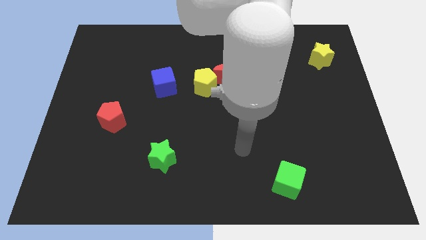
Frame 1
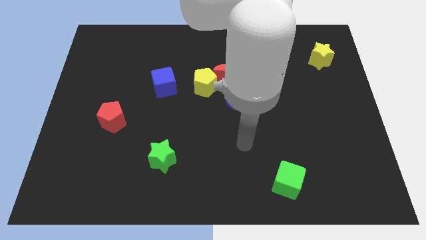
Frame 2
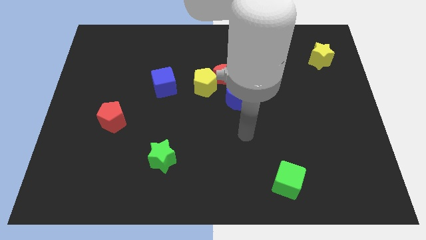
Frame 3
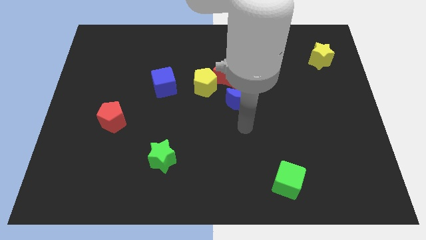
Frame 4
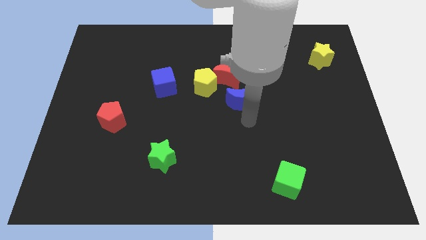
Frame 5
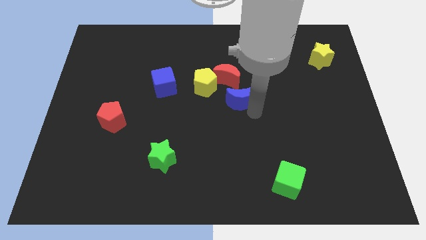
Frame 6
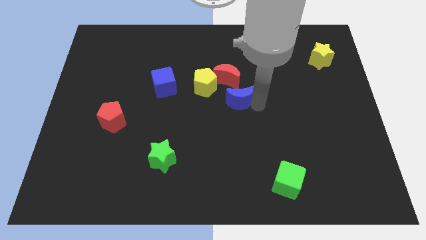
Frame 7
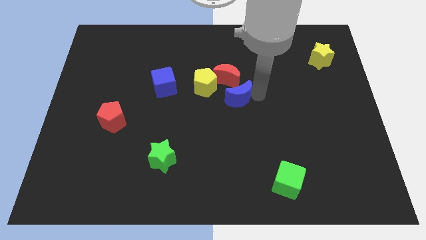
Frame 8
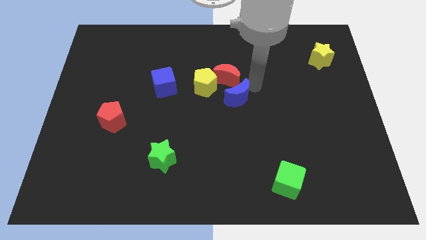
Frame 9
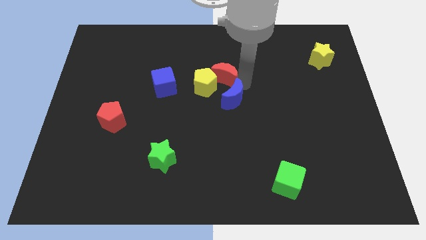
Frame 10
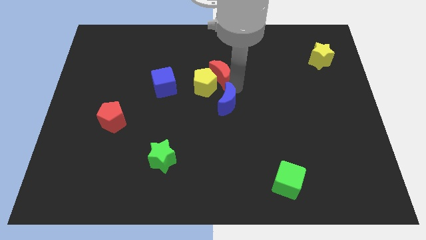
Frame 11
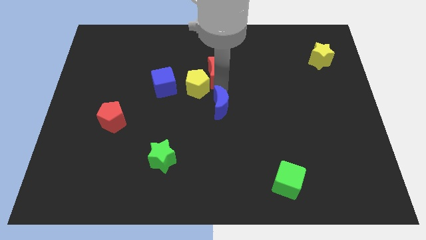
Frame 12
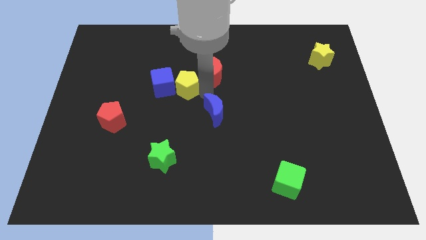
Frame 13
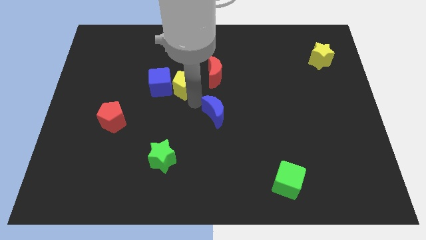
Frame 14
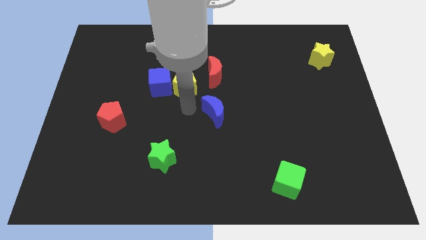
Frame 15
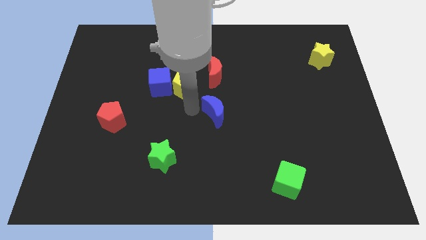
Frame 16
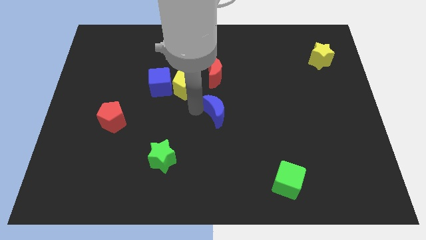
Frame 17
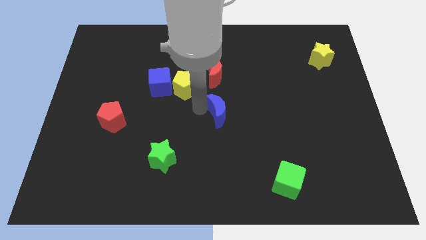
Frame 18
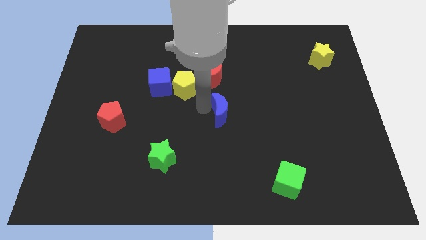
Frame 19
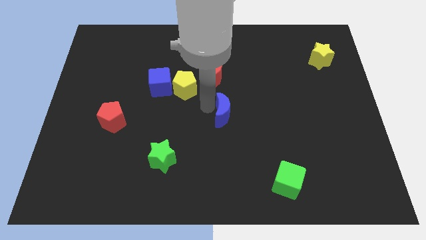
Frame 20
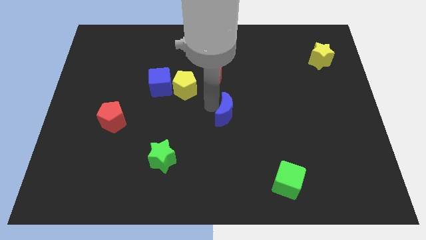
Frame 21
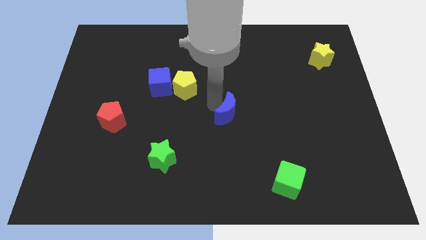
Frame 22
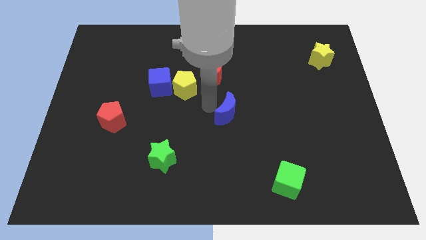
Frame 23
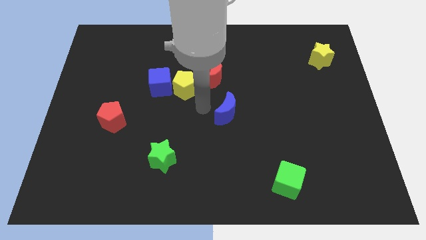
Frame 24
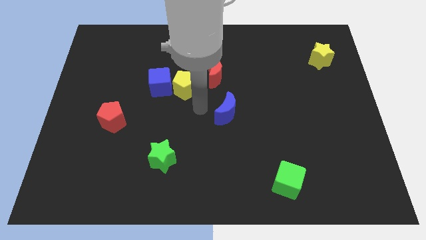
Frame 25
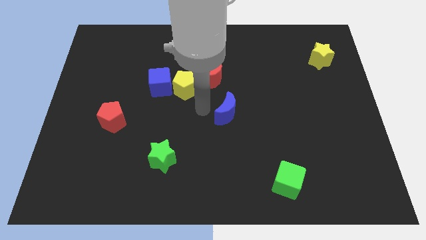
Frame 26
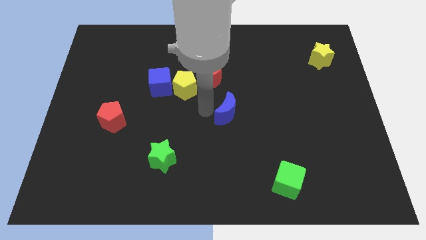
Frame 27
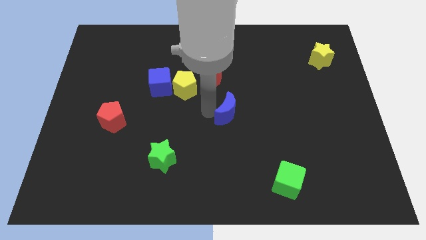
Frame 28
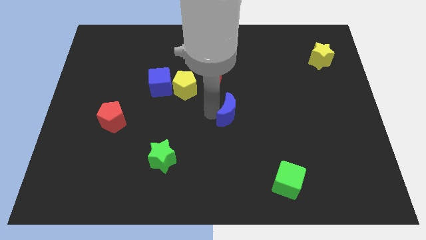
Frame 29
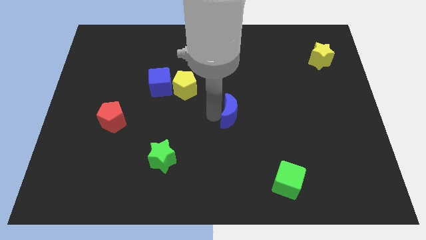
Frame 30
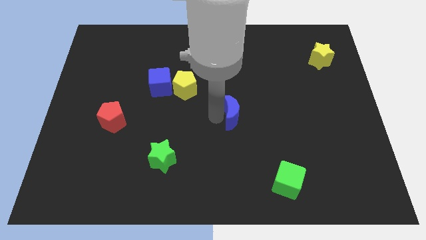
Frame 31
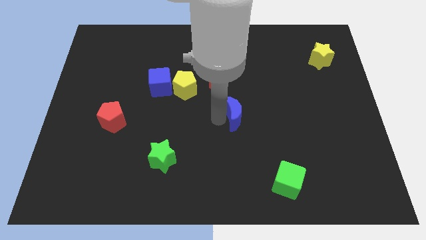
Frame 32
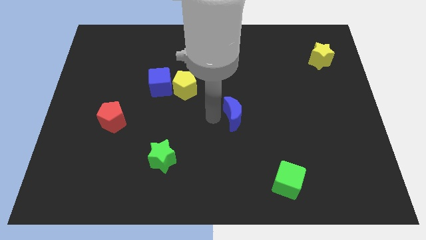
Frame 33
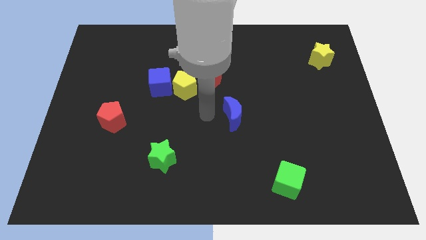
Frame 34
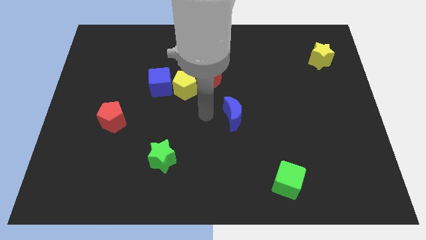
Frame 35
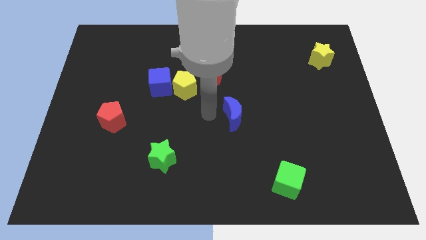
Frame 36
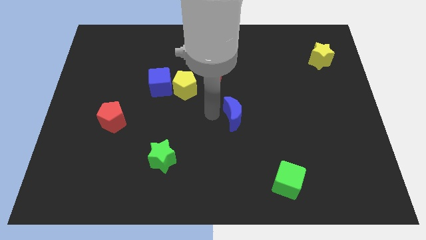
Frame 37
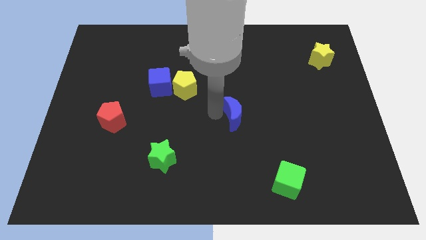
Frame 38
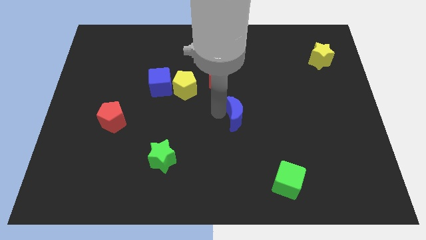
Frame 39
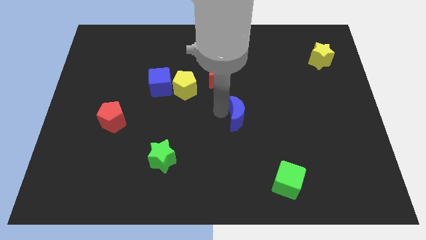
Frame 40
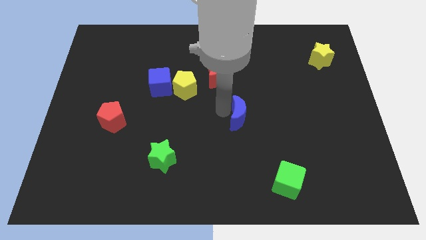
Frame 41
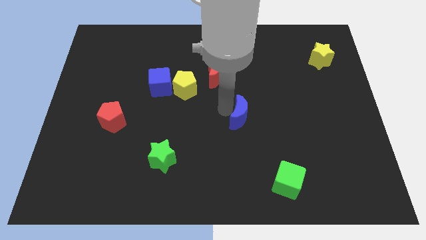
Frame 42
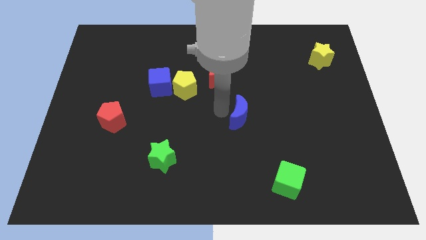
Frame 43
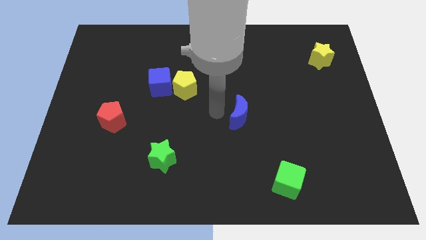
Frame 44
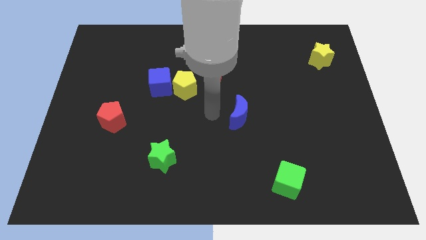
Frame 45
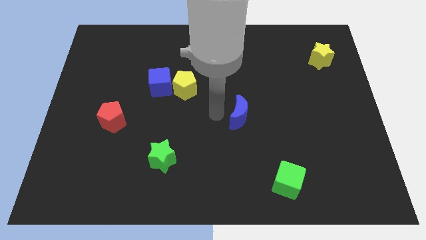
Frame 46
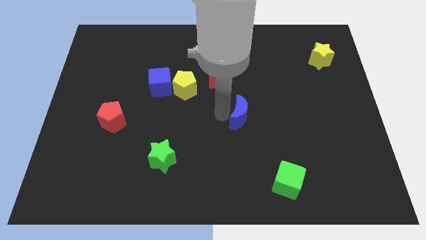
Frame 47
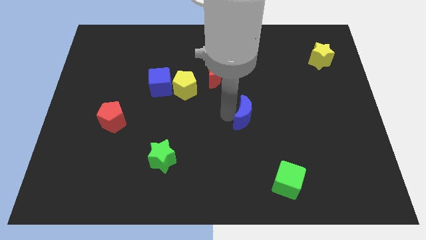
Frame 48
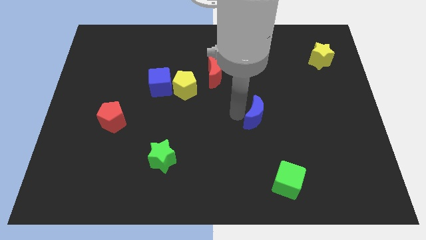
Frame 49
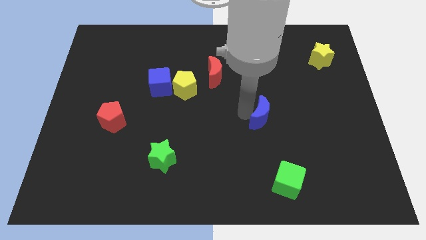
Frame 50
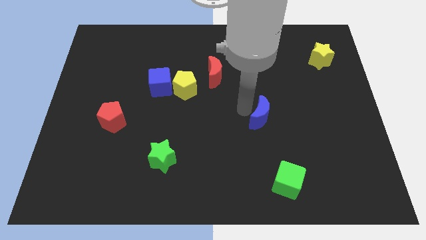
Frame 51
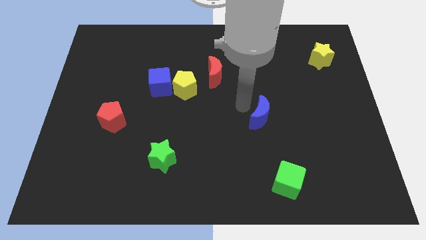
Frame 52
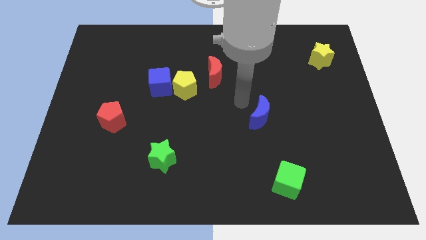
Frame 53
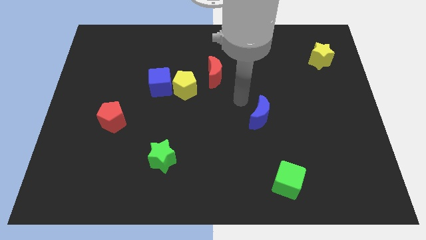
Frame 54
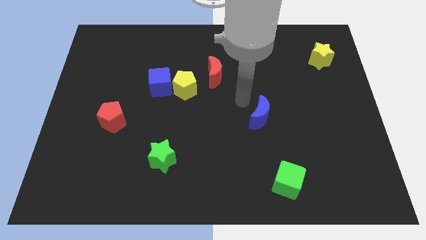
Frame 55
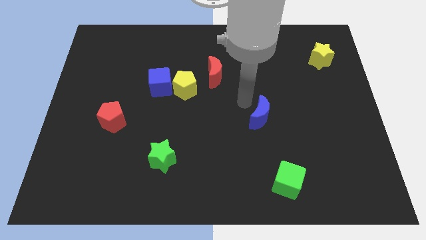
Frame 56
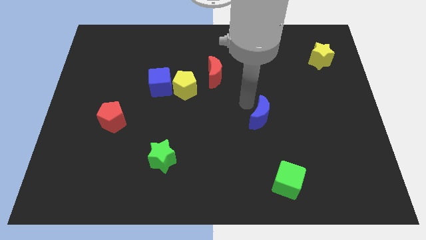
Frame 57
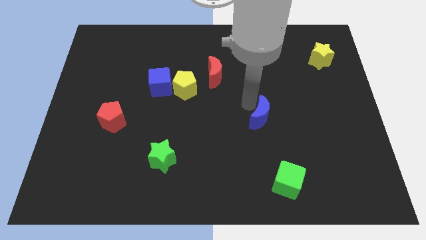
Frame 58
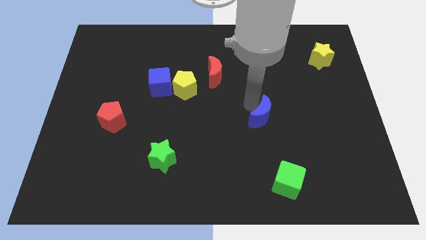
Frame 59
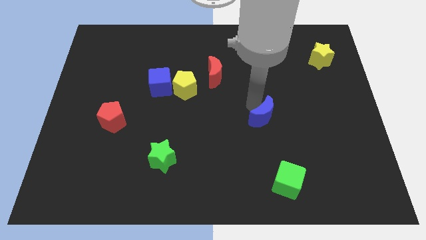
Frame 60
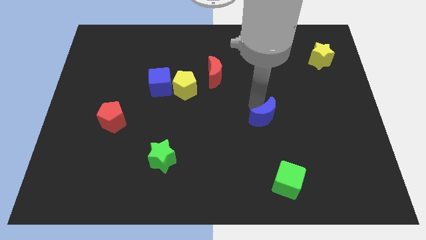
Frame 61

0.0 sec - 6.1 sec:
move the blue moon downwards and to the right slightly

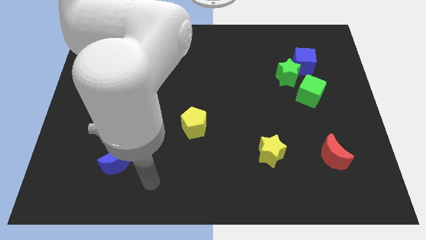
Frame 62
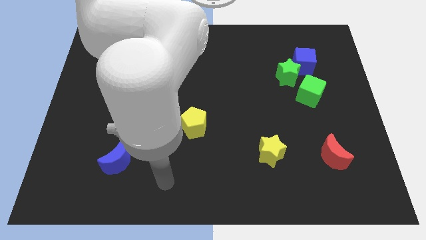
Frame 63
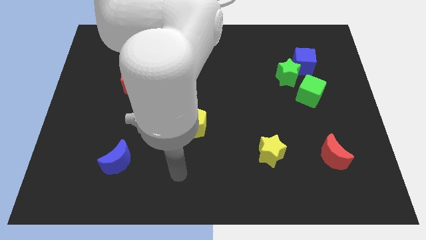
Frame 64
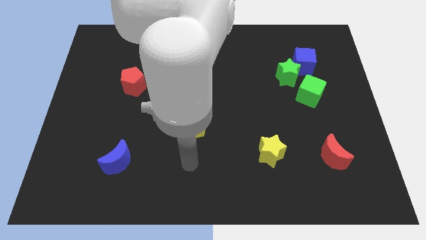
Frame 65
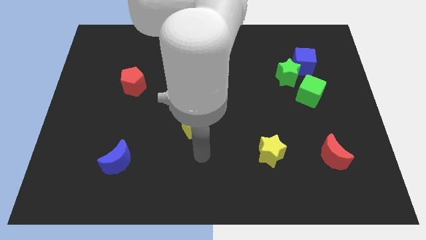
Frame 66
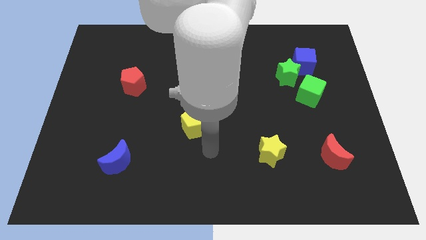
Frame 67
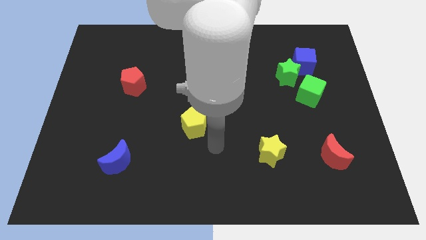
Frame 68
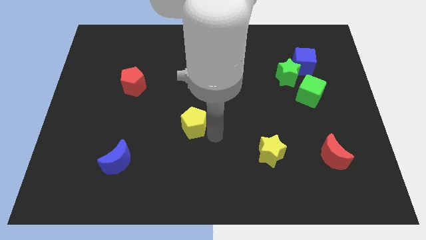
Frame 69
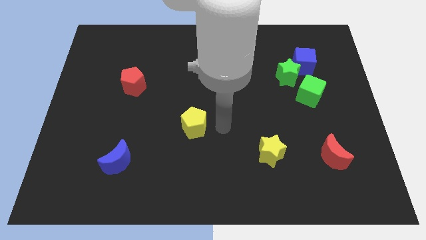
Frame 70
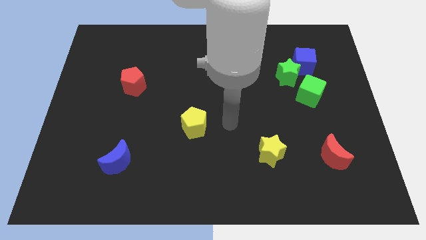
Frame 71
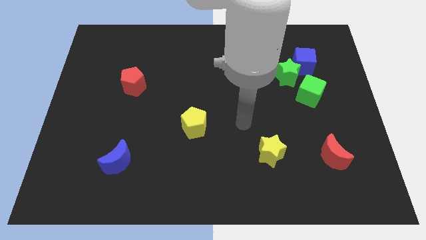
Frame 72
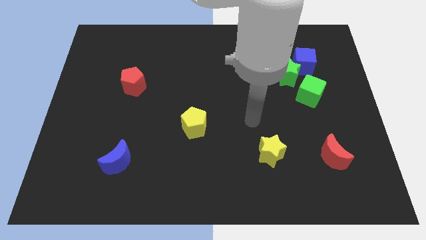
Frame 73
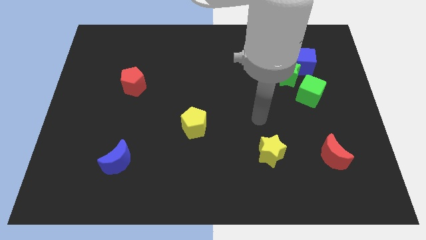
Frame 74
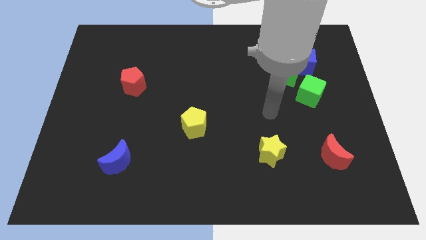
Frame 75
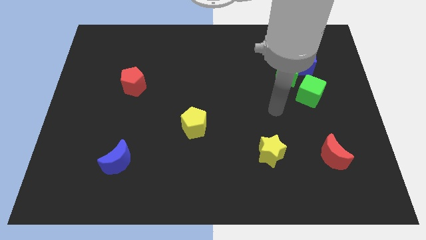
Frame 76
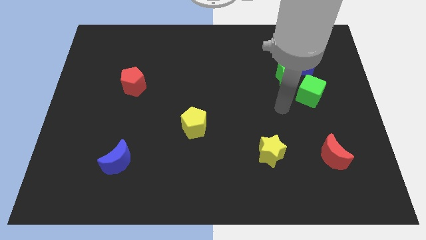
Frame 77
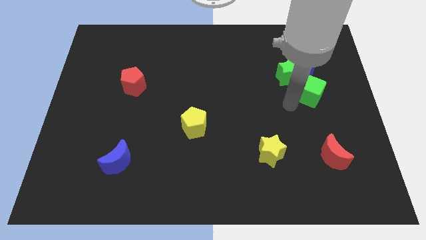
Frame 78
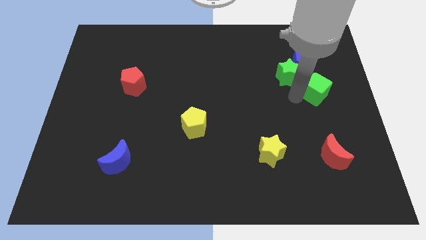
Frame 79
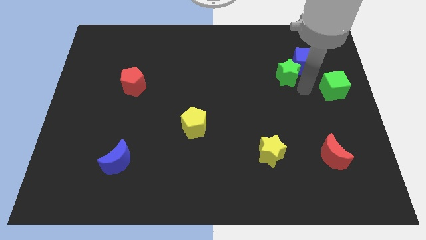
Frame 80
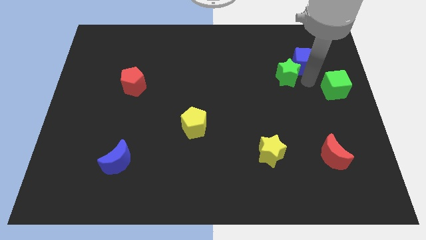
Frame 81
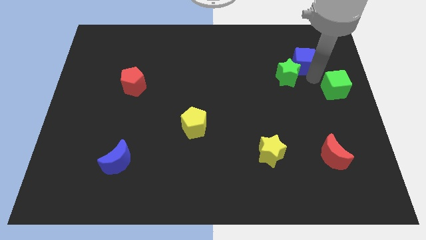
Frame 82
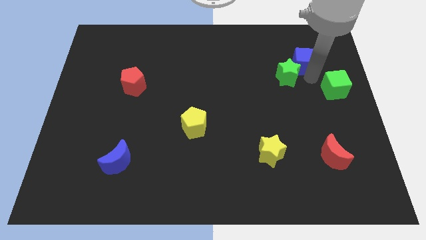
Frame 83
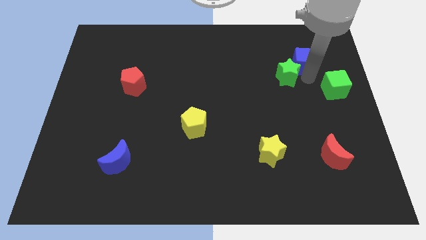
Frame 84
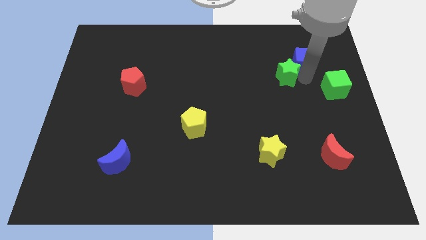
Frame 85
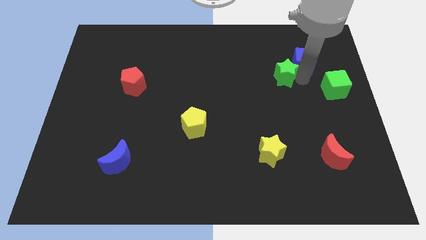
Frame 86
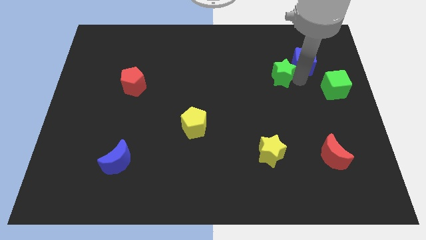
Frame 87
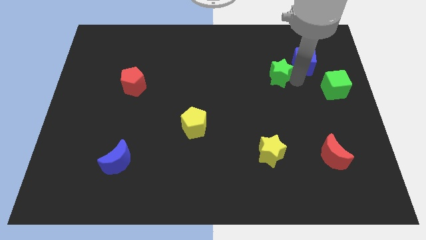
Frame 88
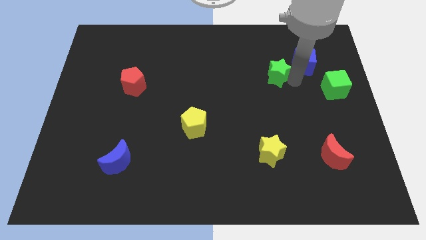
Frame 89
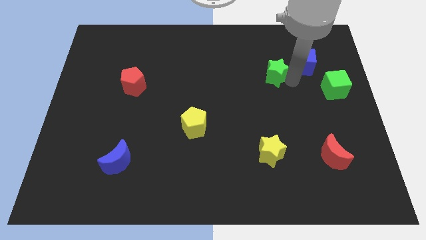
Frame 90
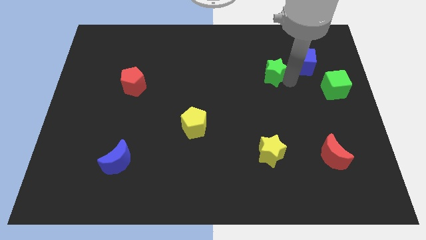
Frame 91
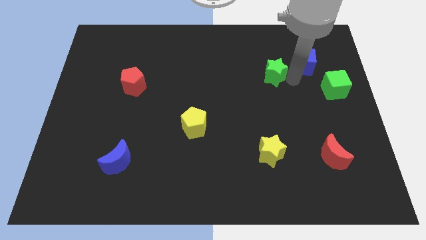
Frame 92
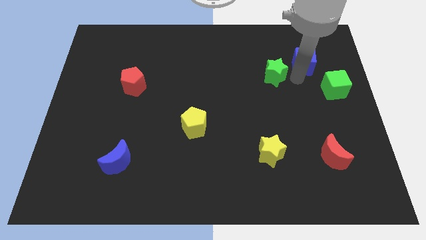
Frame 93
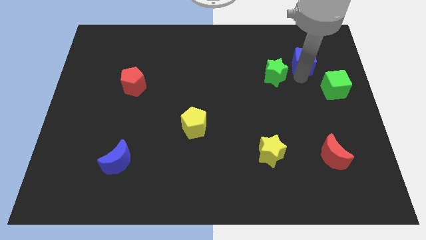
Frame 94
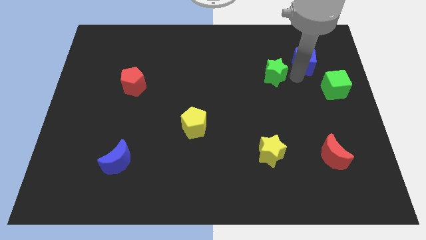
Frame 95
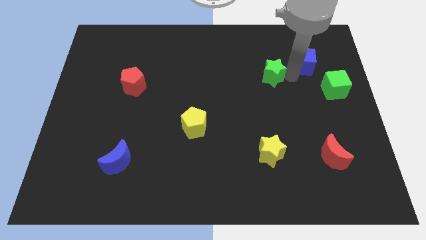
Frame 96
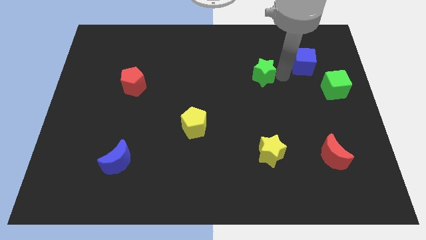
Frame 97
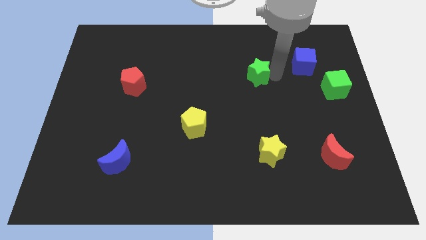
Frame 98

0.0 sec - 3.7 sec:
slide the green star somewhat to the left
